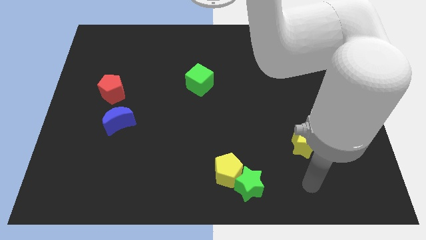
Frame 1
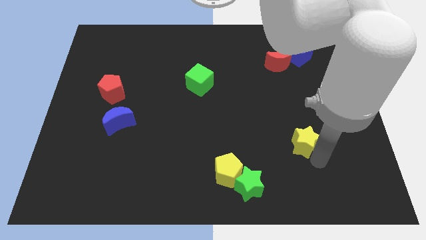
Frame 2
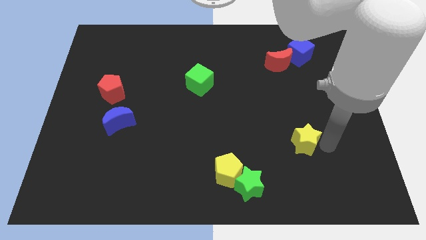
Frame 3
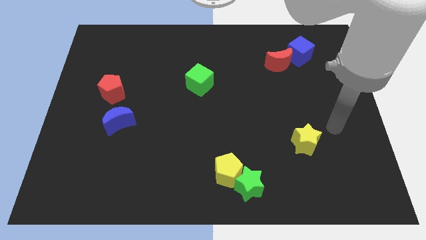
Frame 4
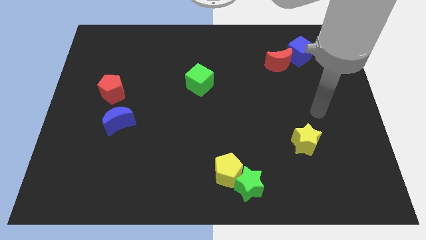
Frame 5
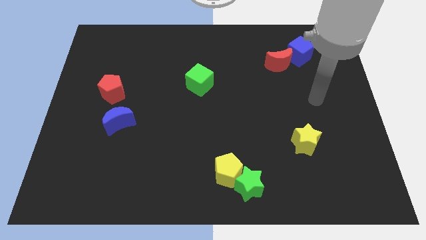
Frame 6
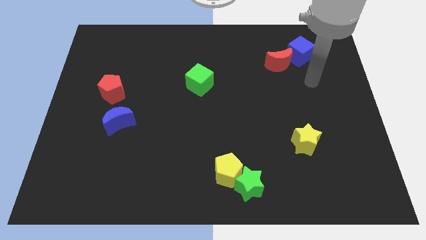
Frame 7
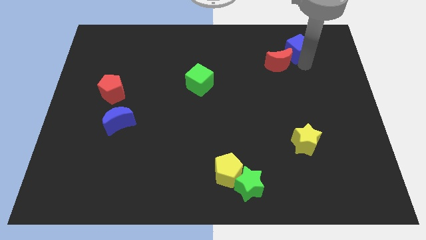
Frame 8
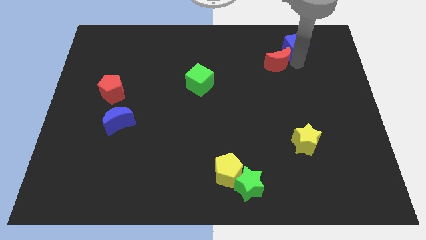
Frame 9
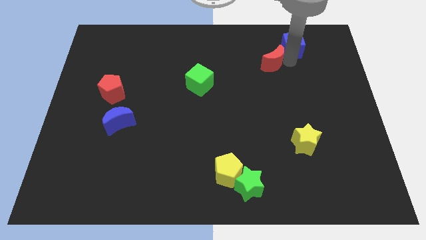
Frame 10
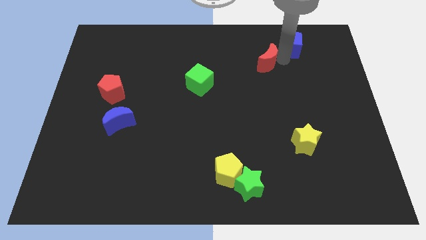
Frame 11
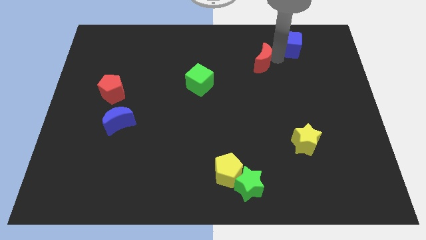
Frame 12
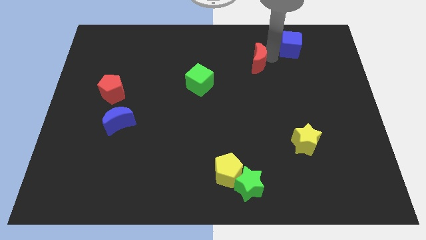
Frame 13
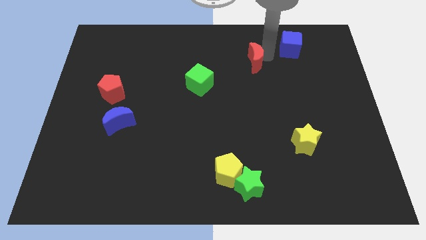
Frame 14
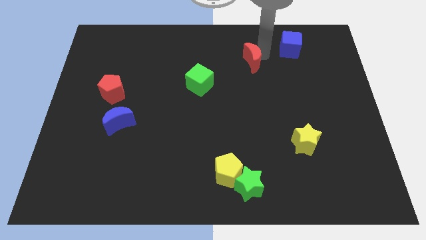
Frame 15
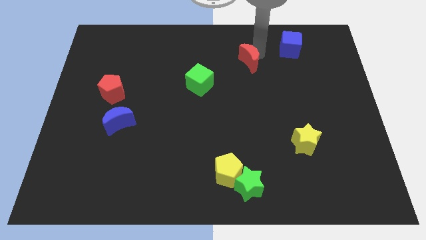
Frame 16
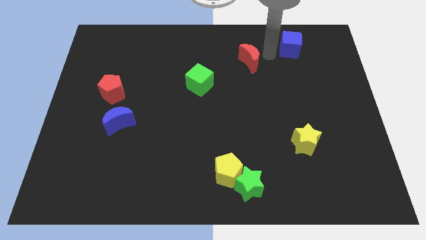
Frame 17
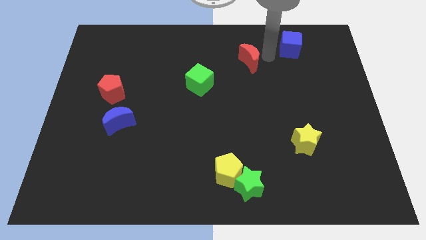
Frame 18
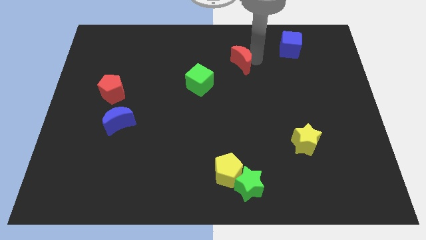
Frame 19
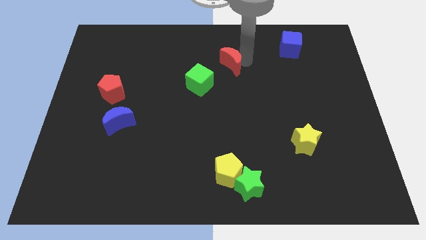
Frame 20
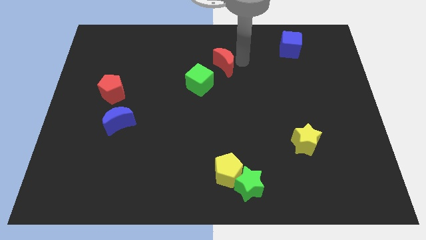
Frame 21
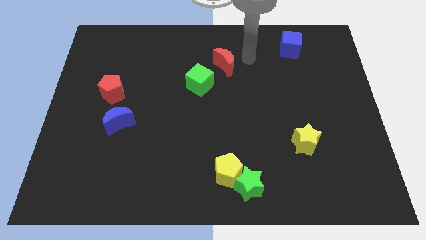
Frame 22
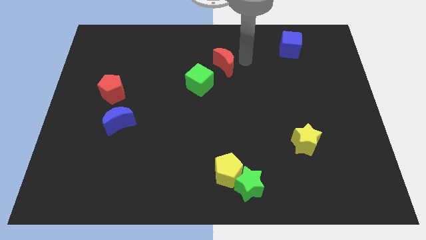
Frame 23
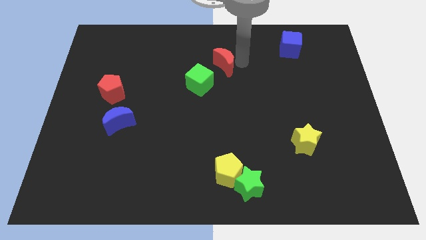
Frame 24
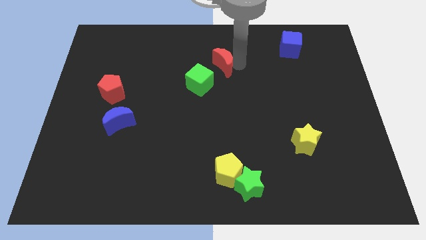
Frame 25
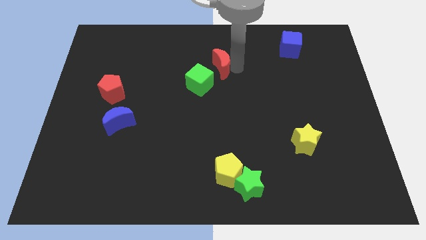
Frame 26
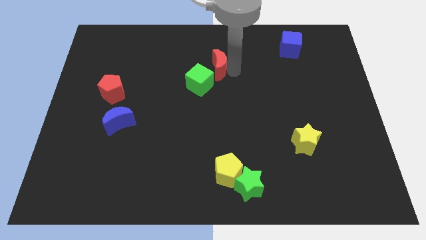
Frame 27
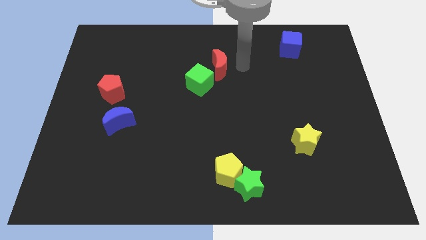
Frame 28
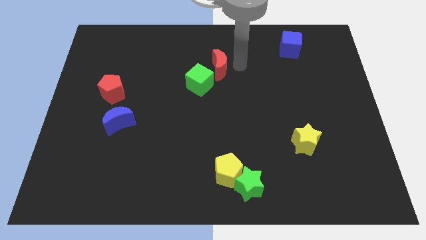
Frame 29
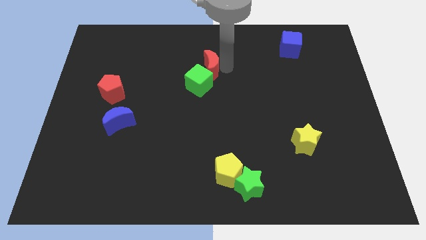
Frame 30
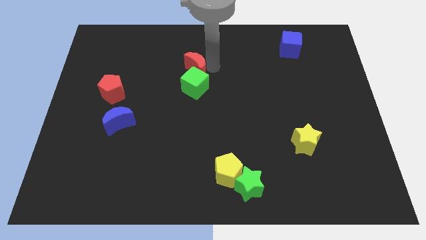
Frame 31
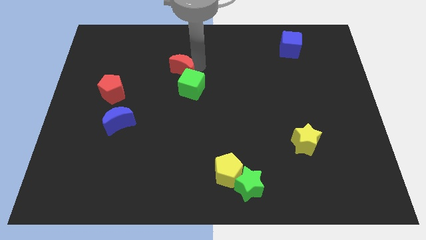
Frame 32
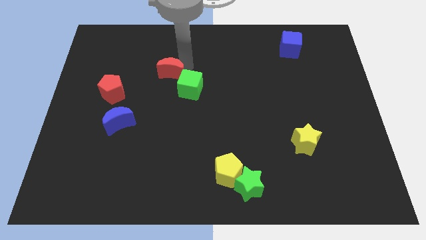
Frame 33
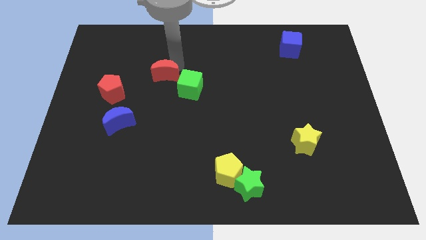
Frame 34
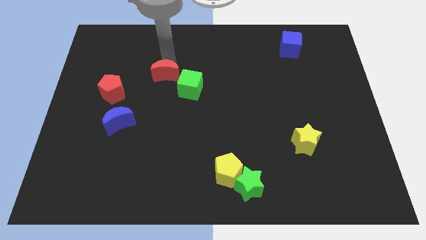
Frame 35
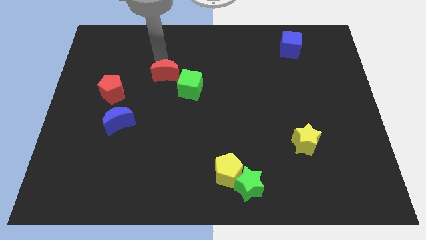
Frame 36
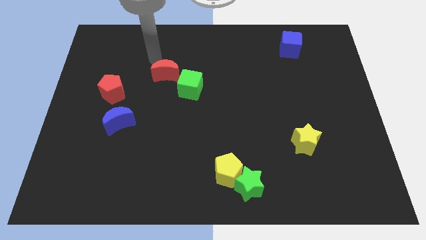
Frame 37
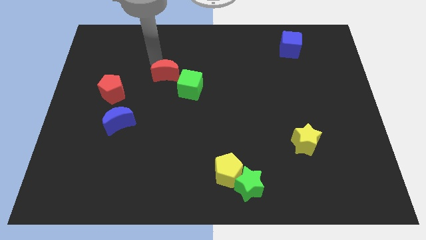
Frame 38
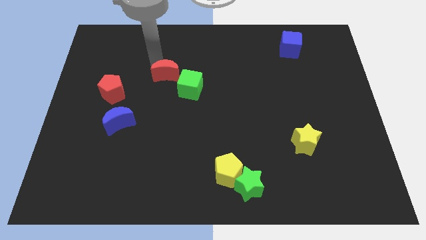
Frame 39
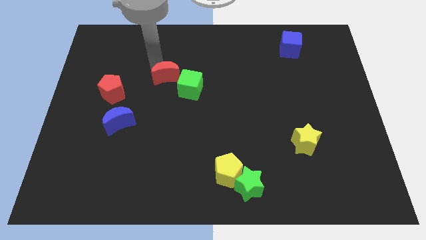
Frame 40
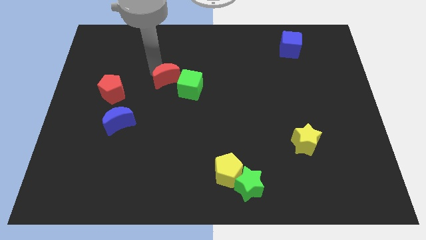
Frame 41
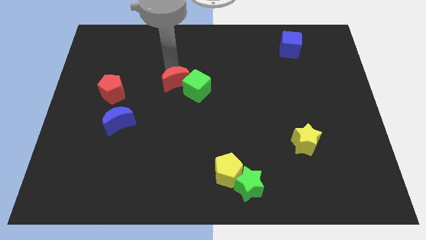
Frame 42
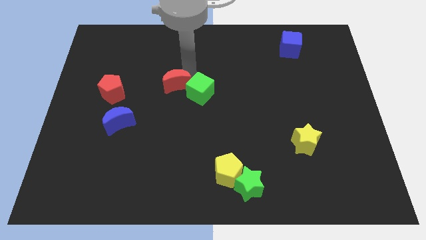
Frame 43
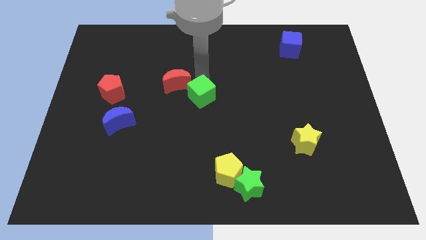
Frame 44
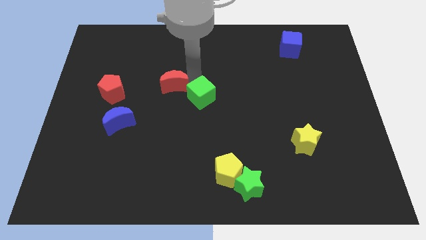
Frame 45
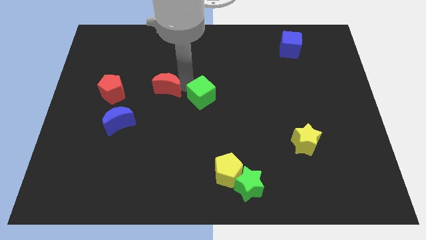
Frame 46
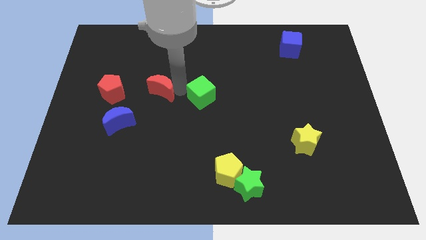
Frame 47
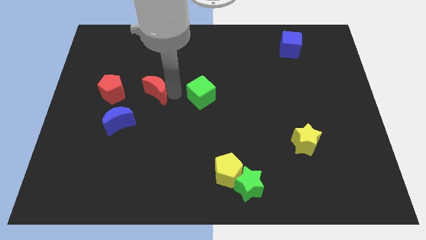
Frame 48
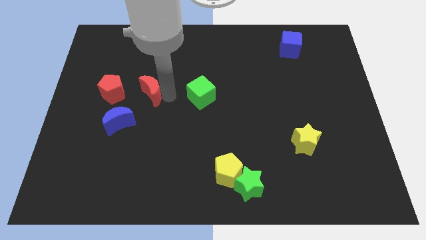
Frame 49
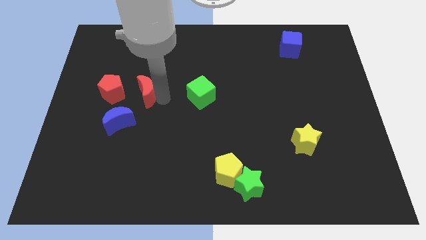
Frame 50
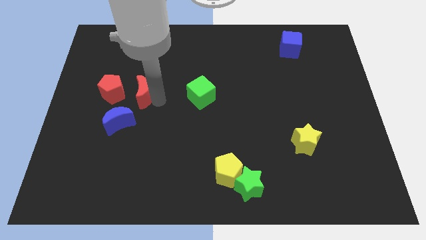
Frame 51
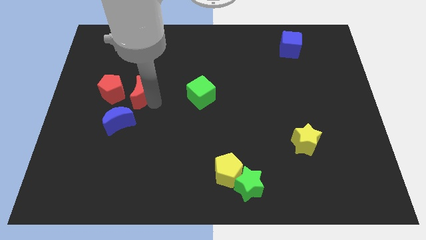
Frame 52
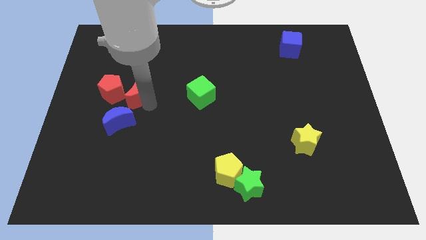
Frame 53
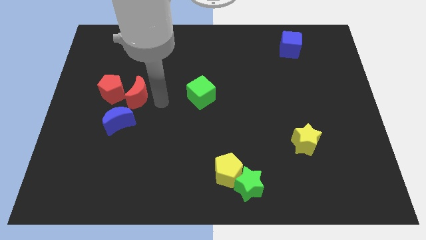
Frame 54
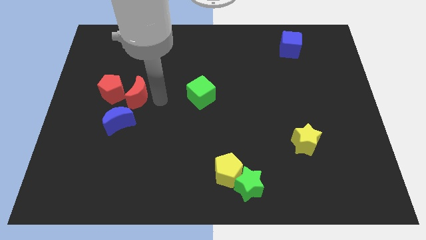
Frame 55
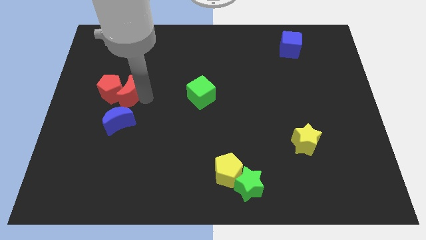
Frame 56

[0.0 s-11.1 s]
push the red moon to the red pentagon
